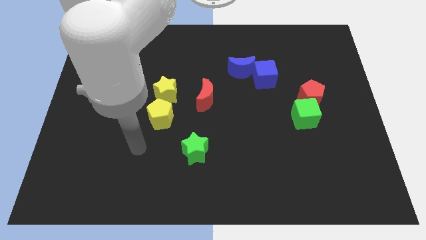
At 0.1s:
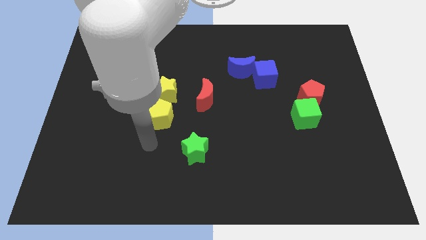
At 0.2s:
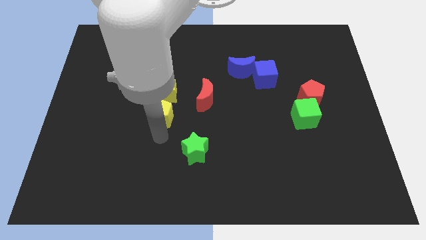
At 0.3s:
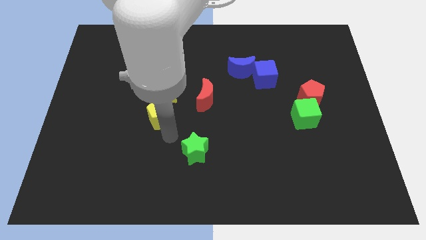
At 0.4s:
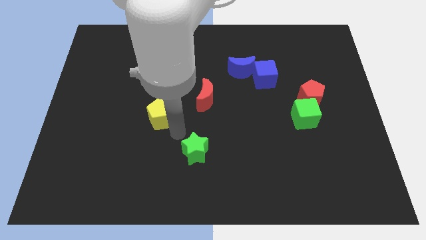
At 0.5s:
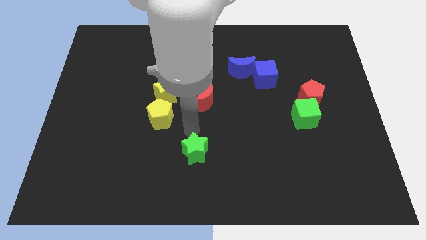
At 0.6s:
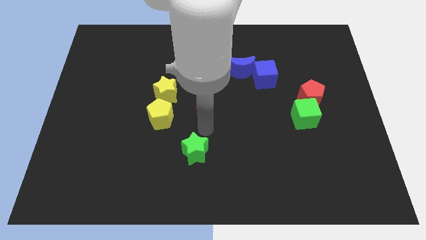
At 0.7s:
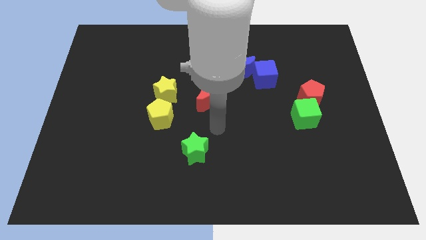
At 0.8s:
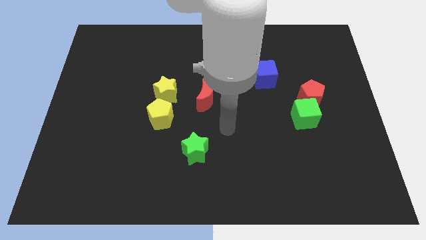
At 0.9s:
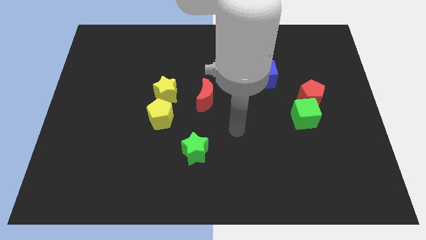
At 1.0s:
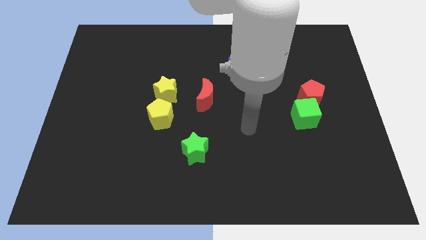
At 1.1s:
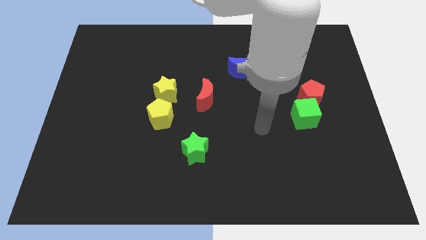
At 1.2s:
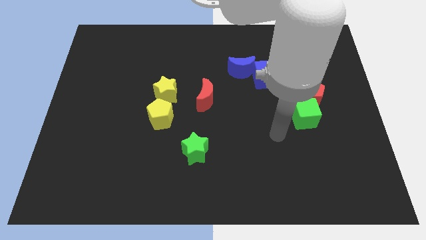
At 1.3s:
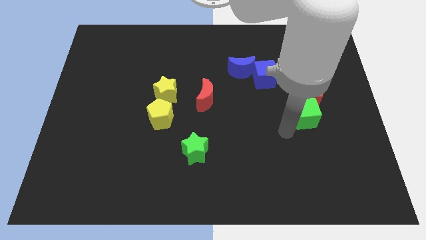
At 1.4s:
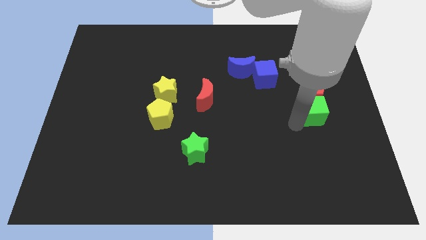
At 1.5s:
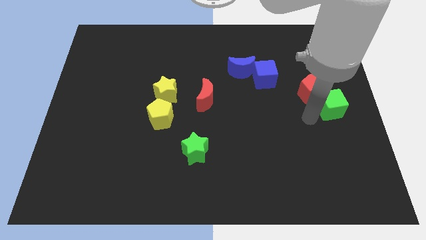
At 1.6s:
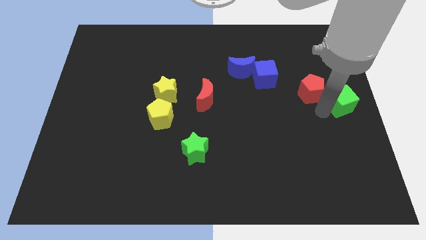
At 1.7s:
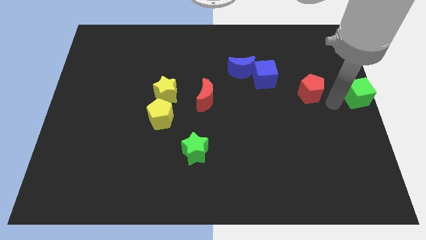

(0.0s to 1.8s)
separate the red pentagon from the green cube

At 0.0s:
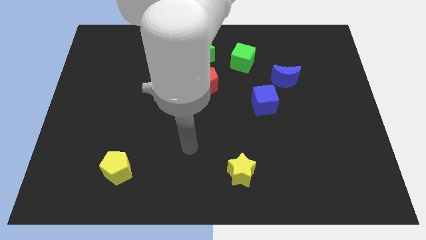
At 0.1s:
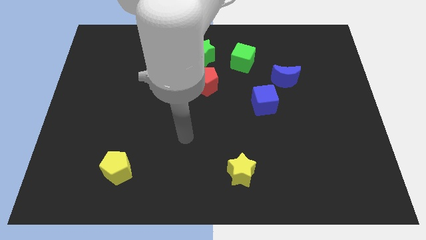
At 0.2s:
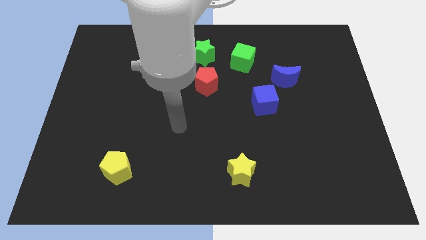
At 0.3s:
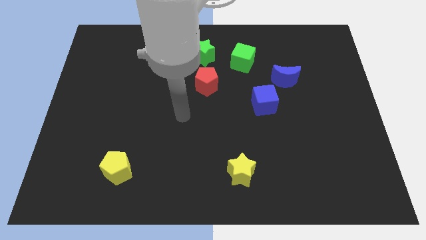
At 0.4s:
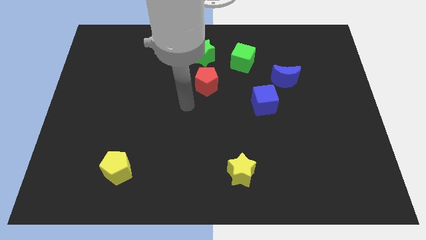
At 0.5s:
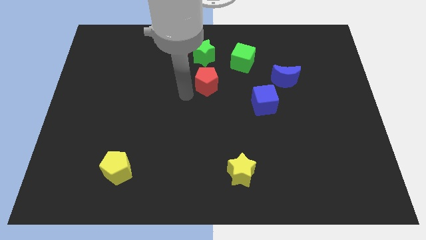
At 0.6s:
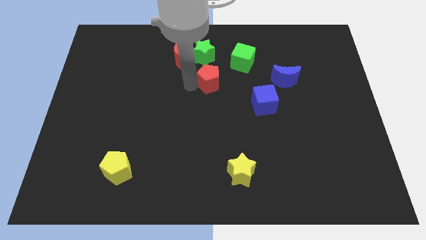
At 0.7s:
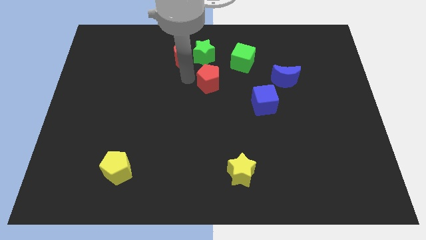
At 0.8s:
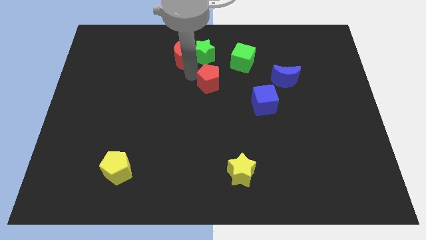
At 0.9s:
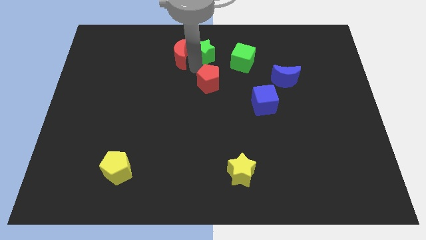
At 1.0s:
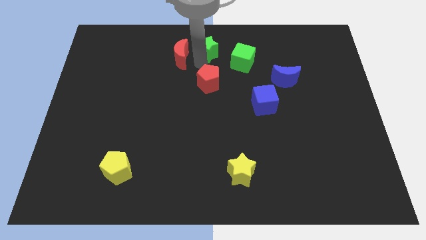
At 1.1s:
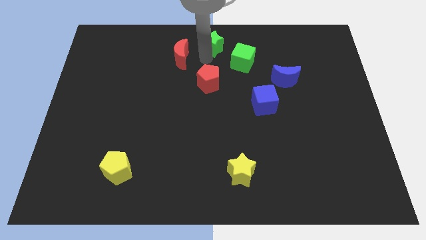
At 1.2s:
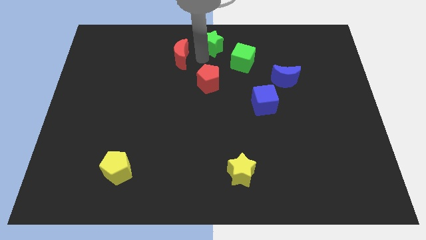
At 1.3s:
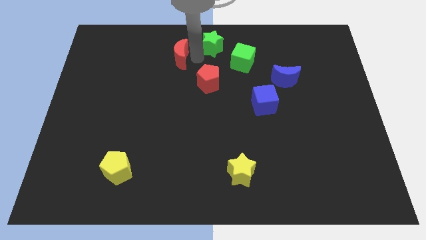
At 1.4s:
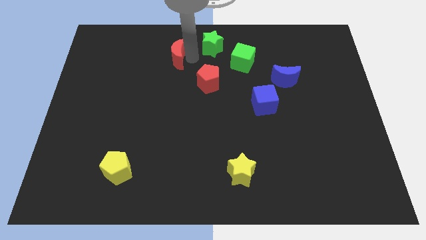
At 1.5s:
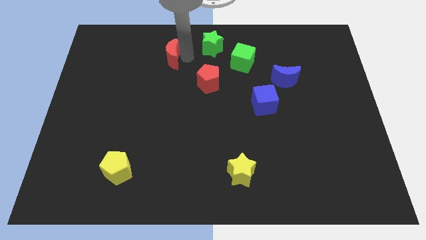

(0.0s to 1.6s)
pull the red moon apart from the green star

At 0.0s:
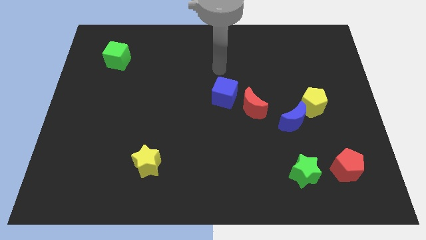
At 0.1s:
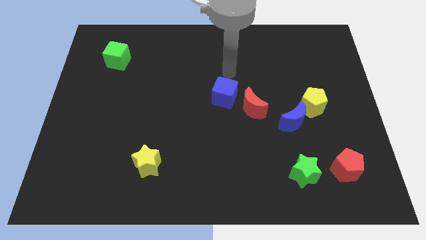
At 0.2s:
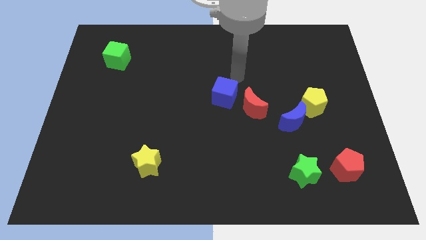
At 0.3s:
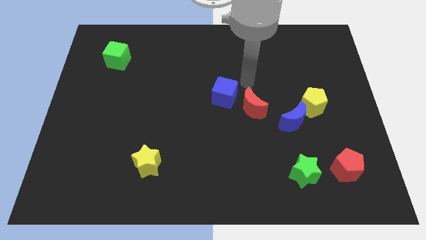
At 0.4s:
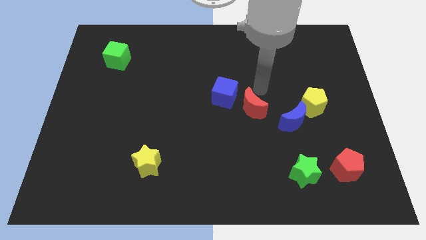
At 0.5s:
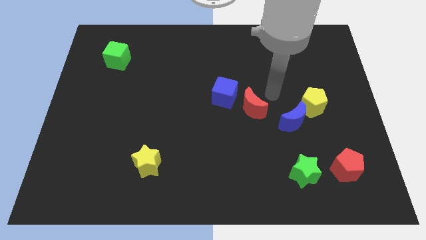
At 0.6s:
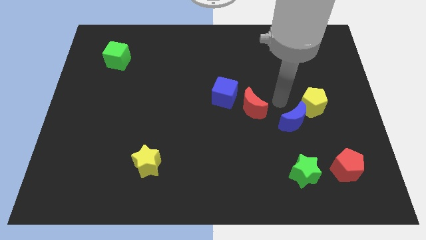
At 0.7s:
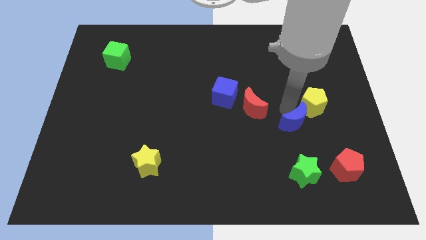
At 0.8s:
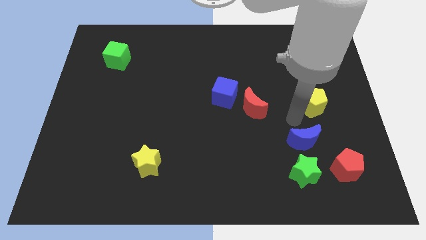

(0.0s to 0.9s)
move the yellow pentagon away from the blue moon

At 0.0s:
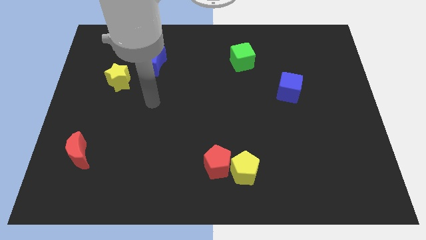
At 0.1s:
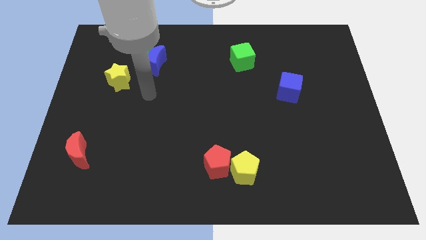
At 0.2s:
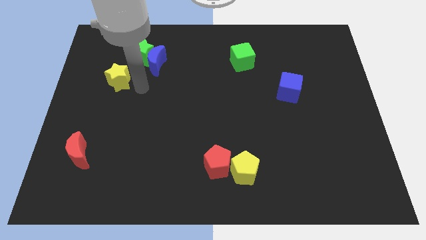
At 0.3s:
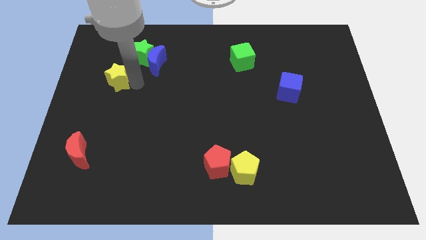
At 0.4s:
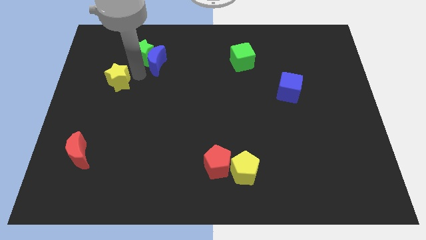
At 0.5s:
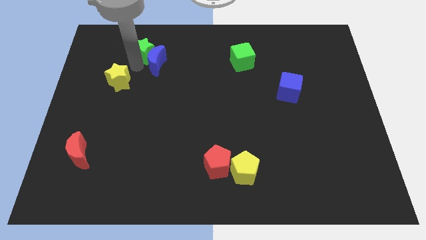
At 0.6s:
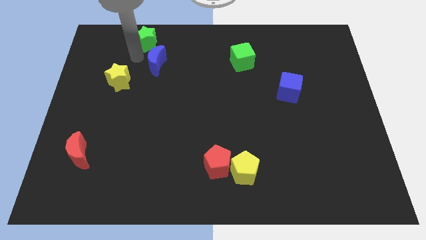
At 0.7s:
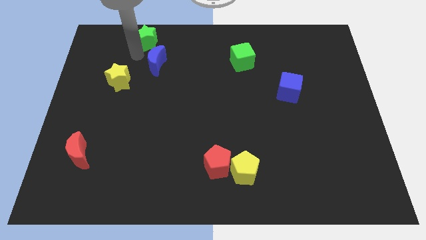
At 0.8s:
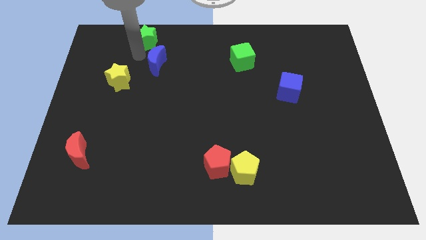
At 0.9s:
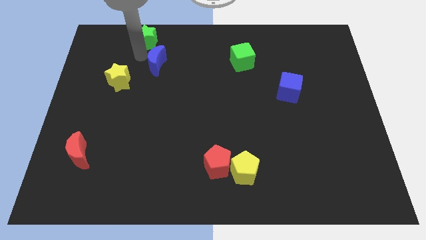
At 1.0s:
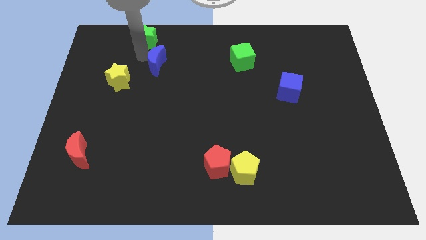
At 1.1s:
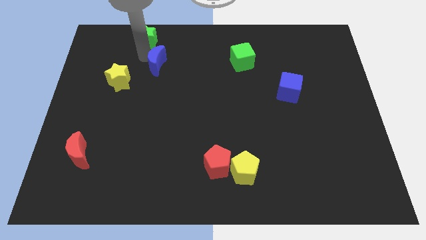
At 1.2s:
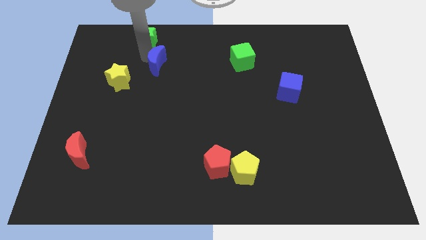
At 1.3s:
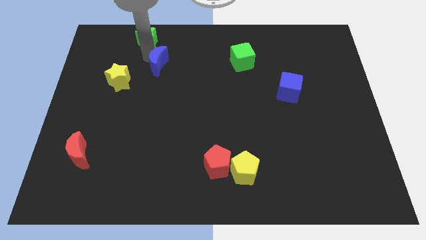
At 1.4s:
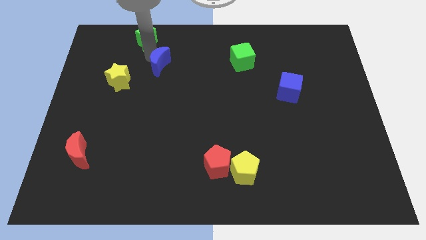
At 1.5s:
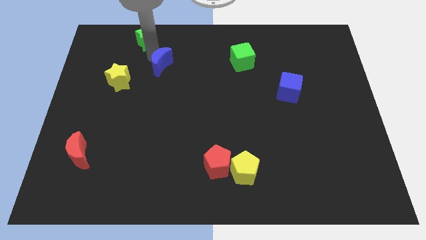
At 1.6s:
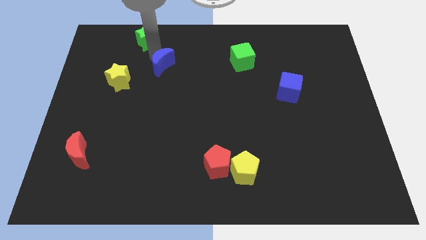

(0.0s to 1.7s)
separate the blue moon from the green star

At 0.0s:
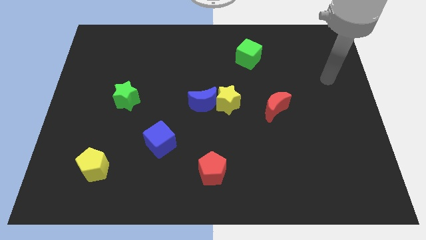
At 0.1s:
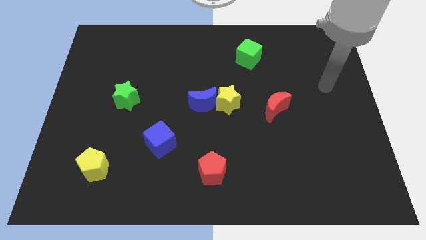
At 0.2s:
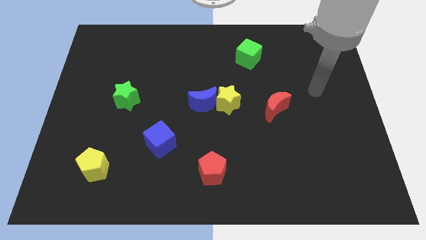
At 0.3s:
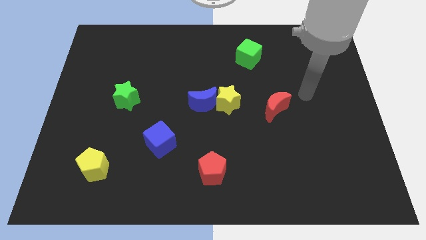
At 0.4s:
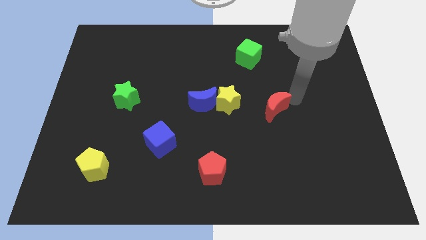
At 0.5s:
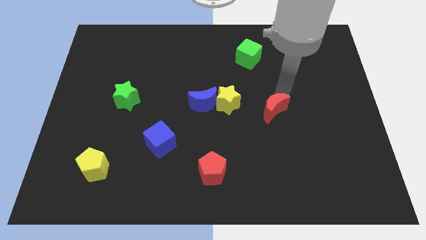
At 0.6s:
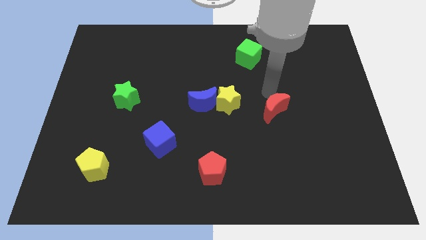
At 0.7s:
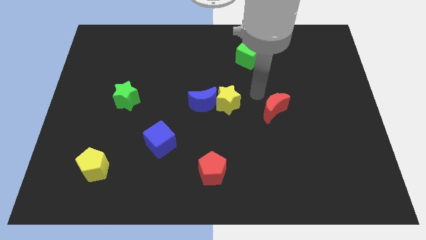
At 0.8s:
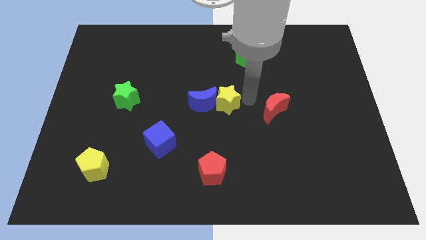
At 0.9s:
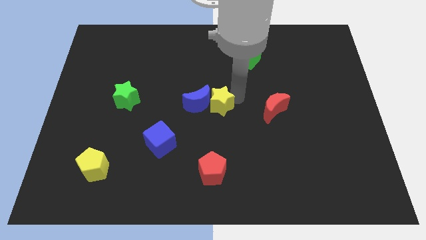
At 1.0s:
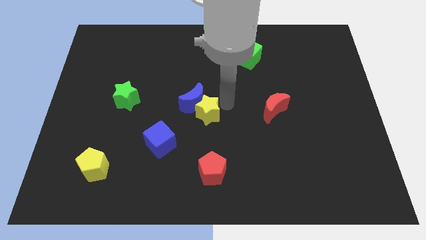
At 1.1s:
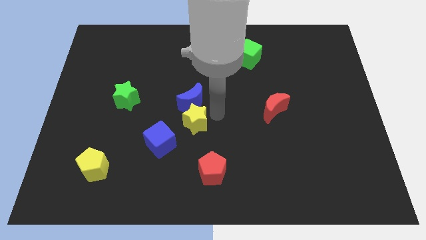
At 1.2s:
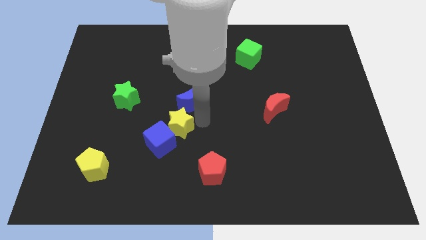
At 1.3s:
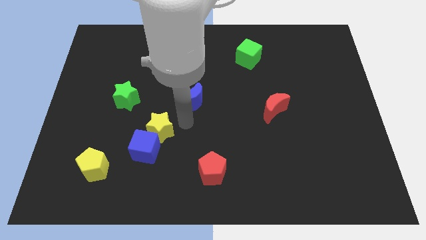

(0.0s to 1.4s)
move the blue moon away from the yellow star

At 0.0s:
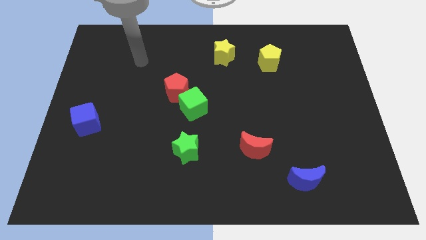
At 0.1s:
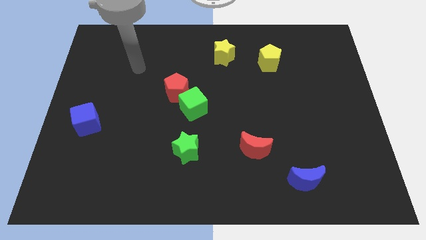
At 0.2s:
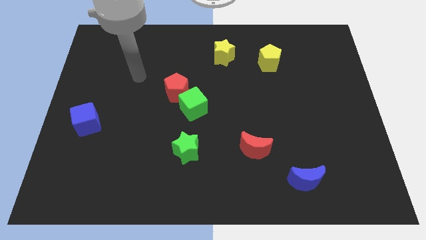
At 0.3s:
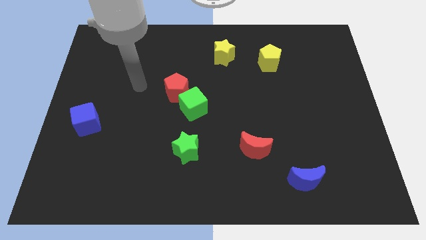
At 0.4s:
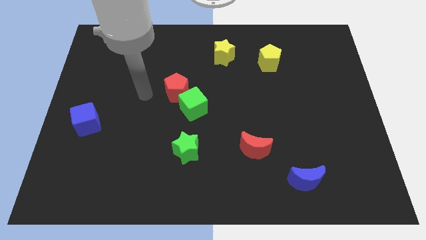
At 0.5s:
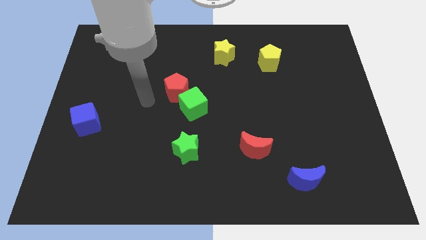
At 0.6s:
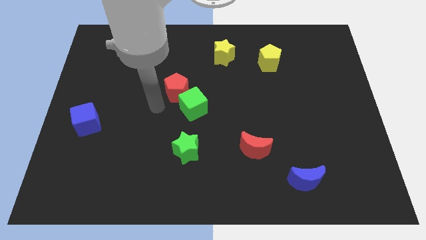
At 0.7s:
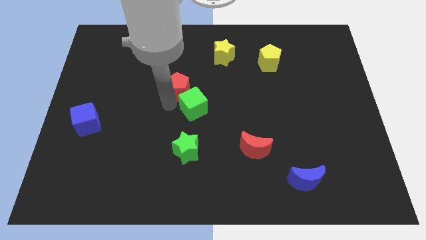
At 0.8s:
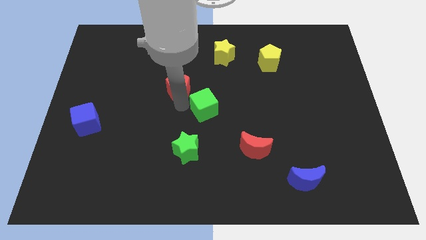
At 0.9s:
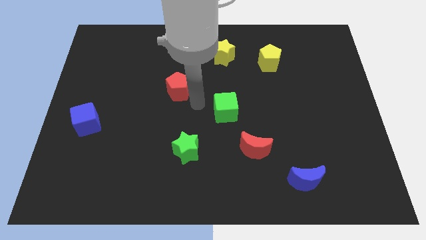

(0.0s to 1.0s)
pull the red pentagon apart from the green cube

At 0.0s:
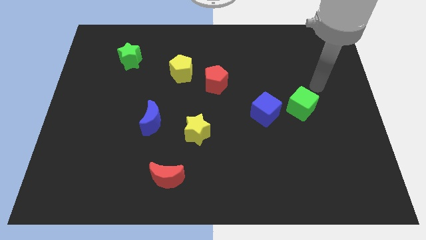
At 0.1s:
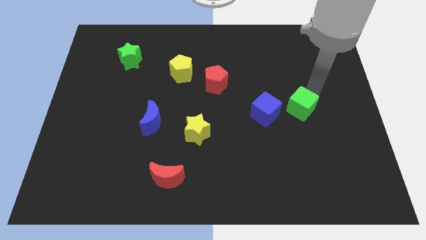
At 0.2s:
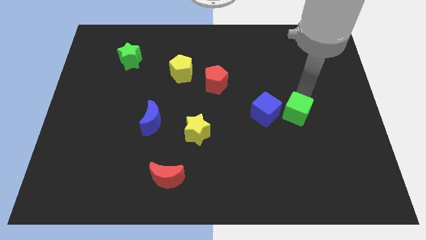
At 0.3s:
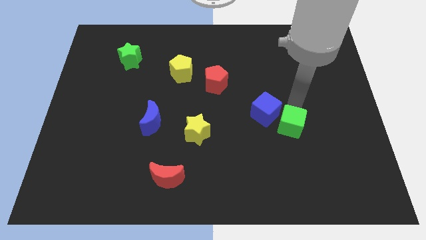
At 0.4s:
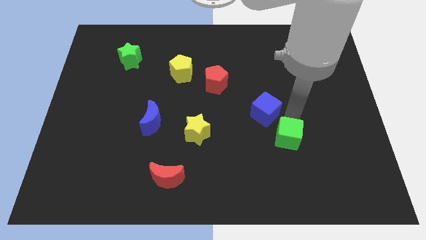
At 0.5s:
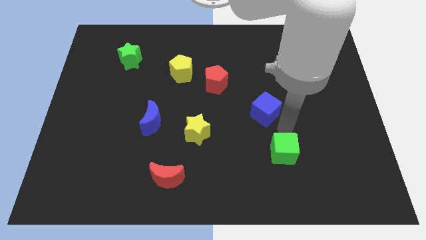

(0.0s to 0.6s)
separate the blue cube from the green cube

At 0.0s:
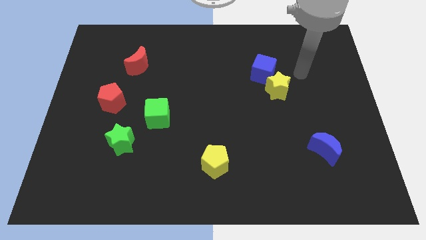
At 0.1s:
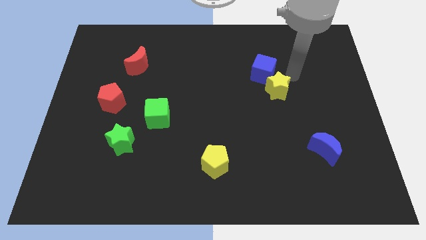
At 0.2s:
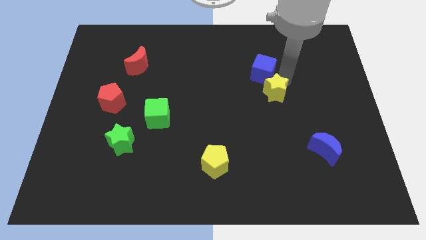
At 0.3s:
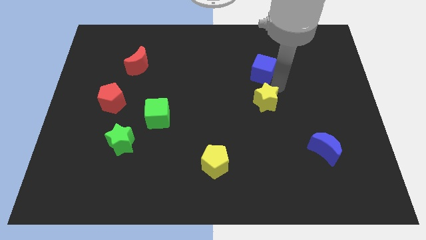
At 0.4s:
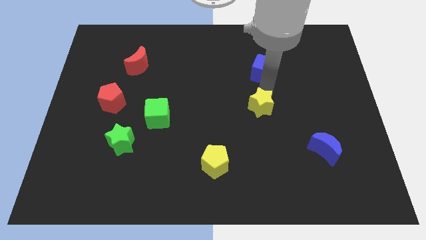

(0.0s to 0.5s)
move the blue cube away from the yellow star
